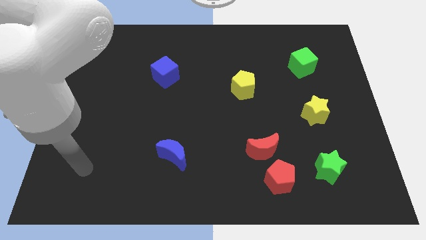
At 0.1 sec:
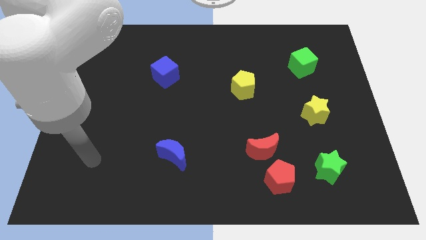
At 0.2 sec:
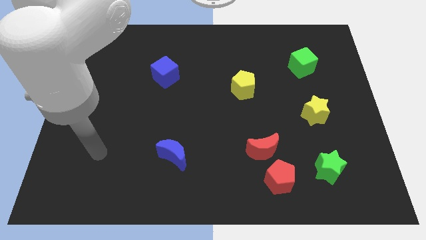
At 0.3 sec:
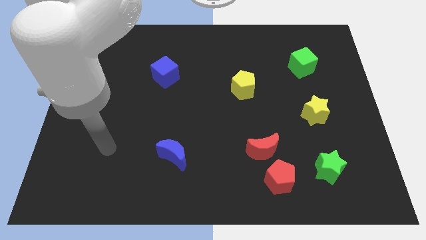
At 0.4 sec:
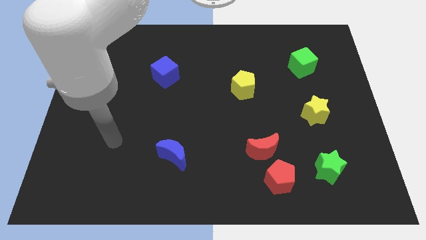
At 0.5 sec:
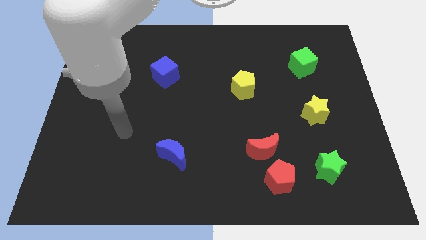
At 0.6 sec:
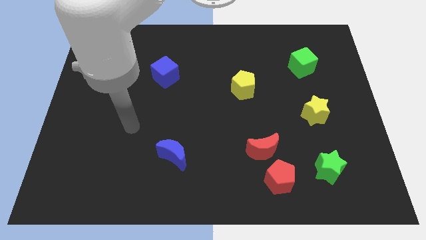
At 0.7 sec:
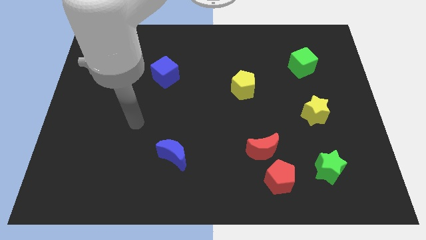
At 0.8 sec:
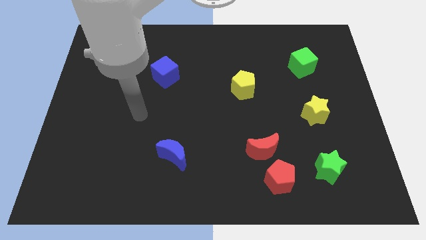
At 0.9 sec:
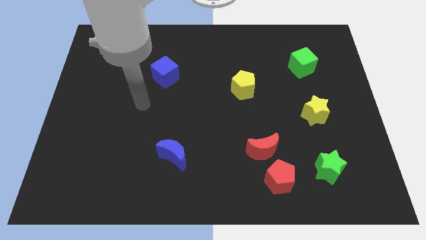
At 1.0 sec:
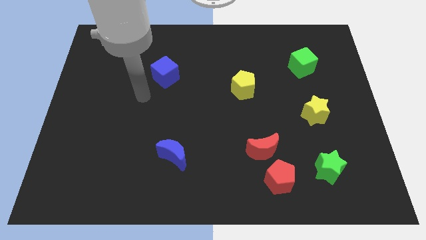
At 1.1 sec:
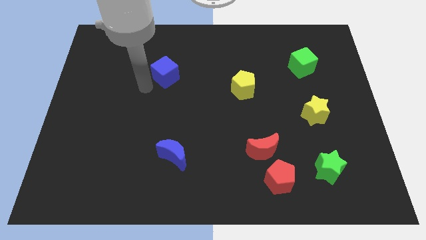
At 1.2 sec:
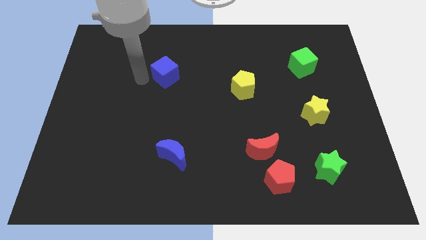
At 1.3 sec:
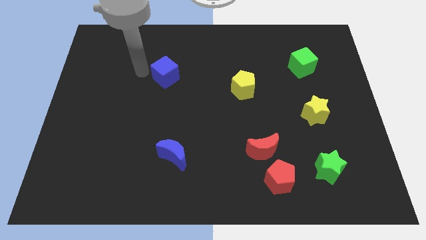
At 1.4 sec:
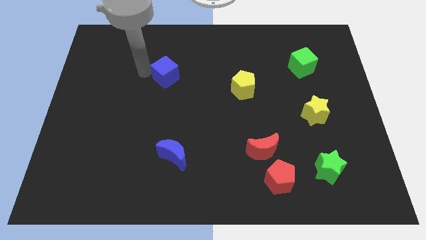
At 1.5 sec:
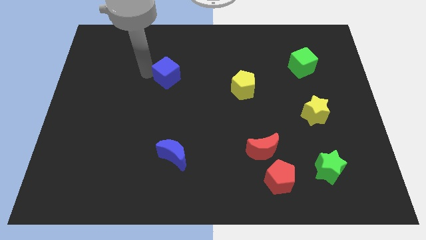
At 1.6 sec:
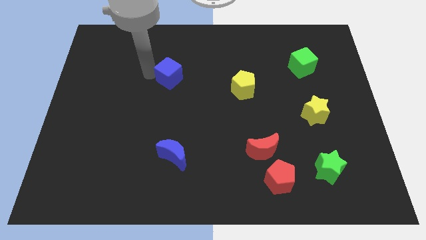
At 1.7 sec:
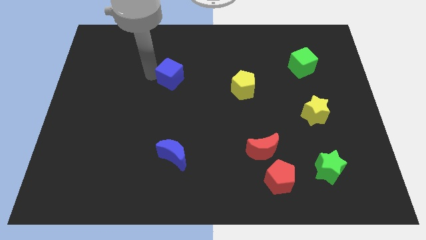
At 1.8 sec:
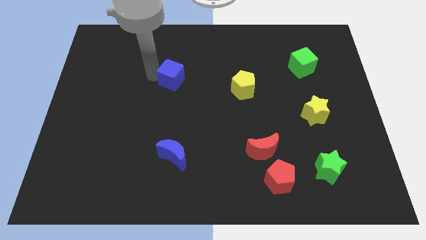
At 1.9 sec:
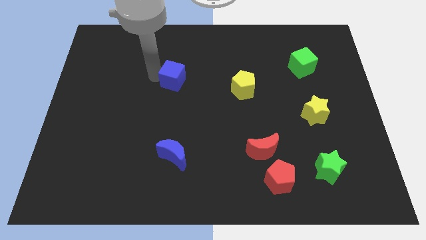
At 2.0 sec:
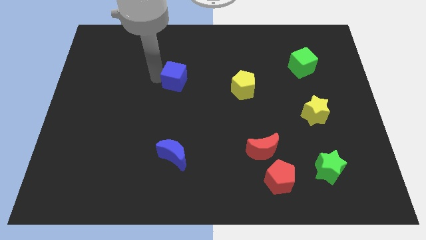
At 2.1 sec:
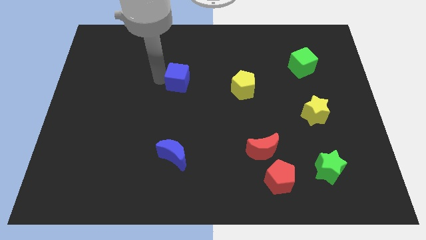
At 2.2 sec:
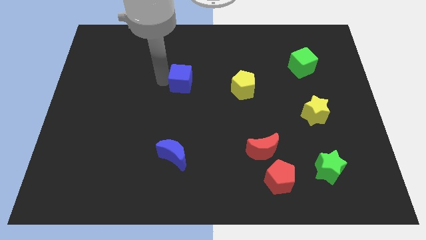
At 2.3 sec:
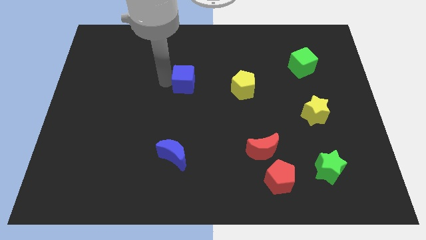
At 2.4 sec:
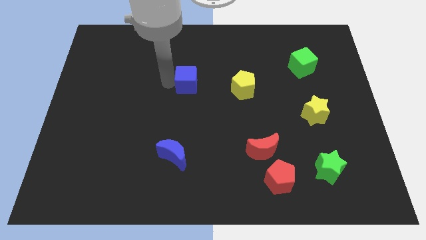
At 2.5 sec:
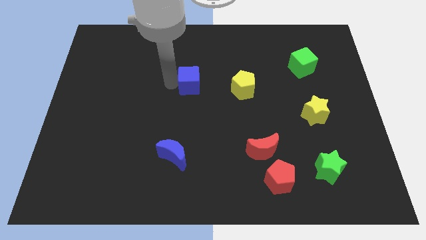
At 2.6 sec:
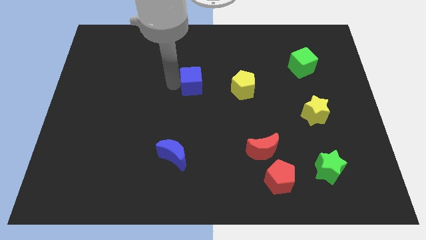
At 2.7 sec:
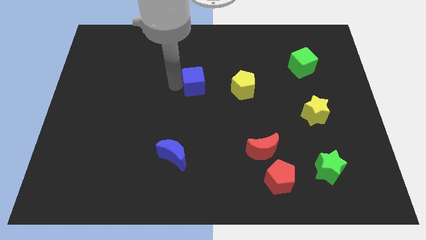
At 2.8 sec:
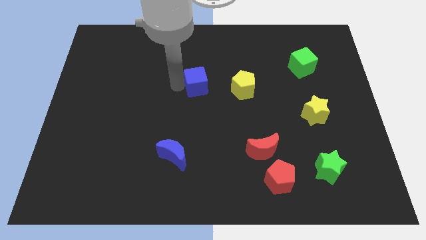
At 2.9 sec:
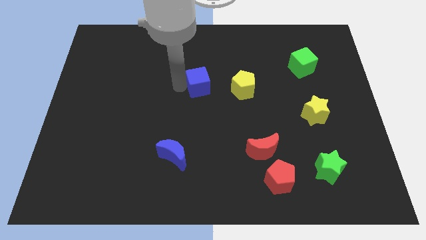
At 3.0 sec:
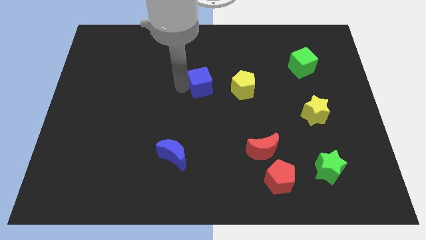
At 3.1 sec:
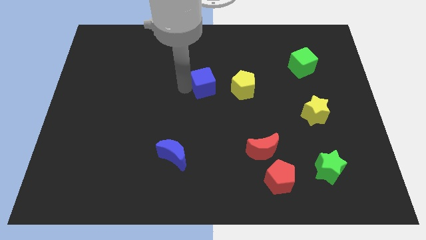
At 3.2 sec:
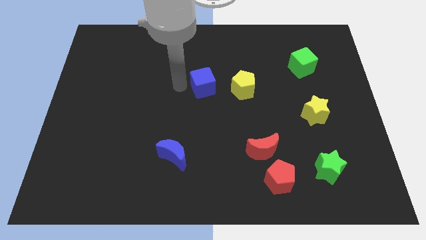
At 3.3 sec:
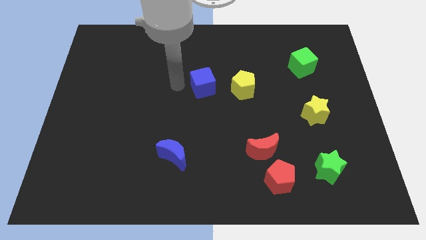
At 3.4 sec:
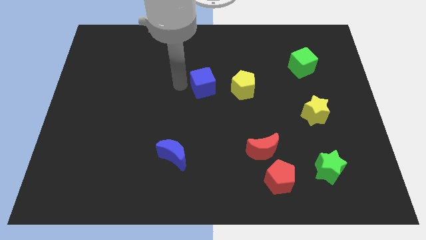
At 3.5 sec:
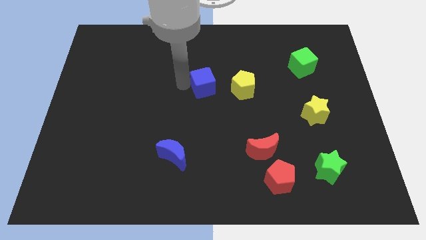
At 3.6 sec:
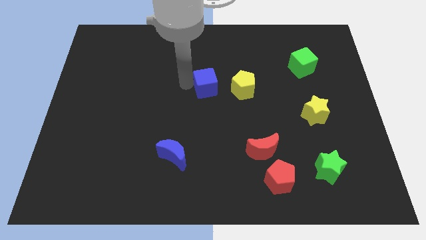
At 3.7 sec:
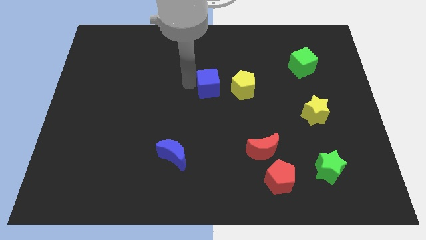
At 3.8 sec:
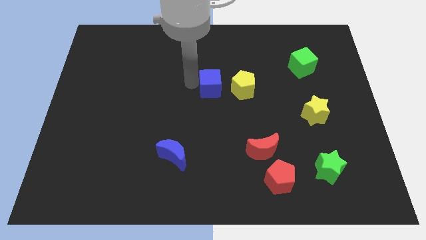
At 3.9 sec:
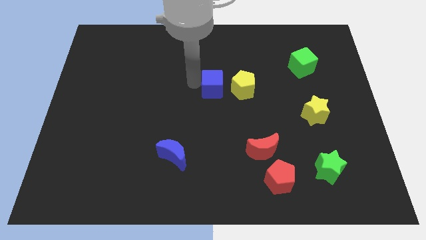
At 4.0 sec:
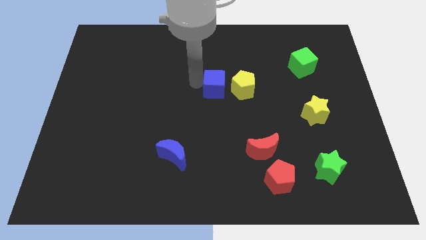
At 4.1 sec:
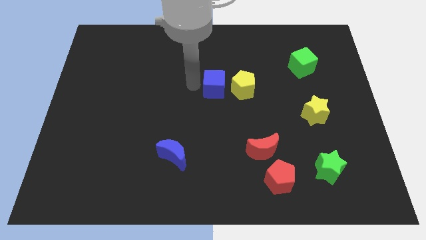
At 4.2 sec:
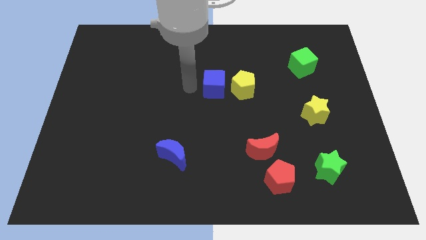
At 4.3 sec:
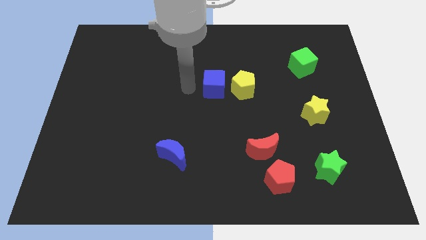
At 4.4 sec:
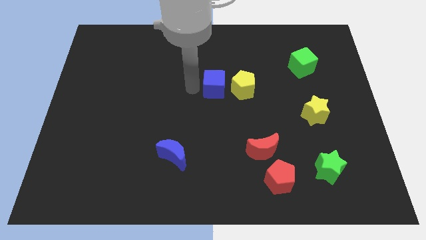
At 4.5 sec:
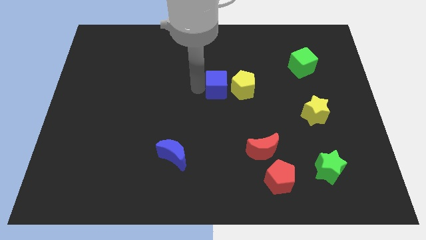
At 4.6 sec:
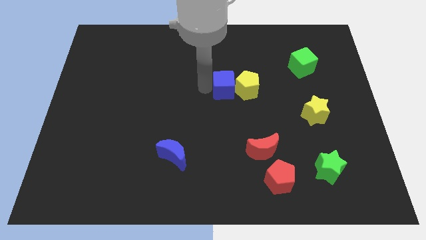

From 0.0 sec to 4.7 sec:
slide the blue cube towards the yellow pentagon

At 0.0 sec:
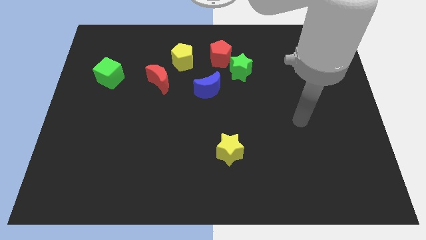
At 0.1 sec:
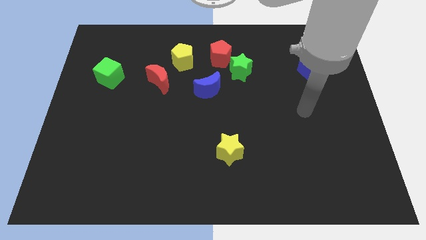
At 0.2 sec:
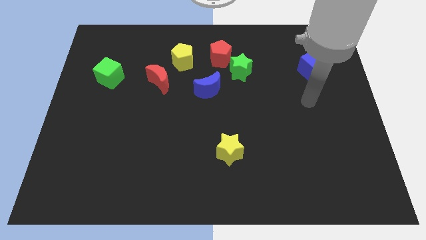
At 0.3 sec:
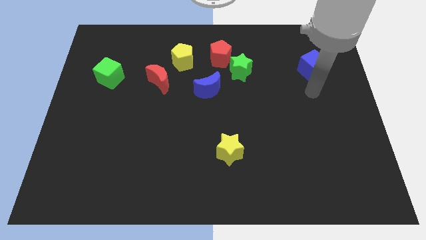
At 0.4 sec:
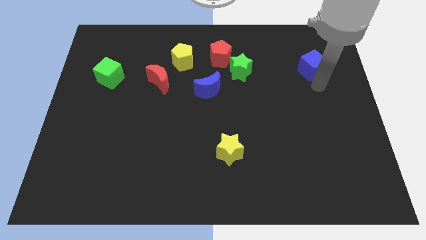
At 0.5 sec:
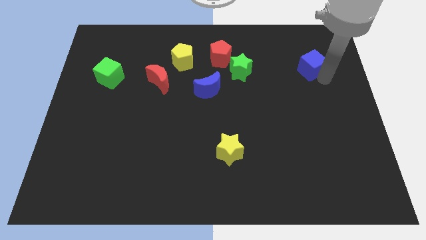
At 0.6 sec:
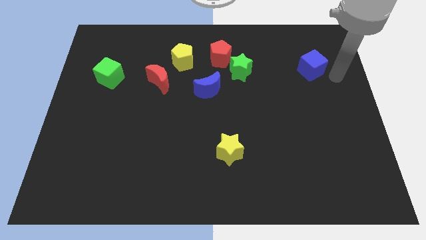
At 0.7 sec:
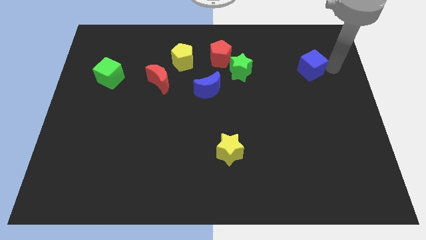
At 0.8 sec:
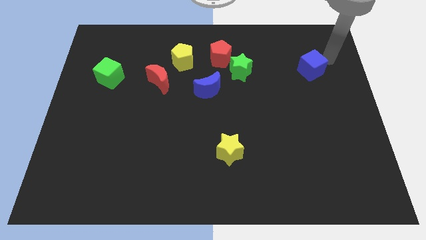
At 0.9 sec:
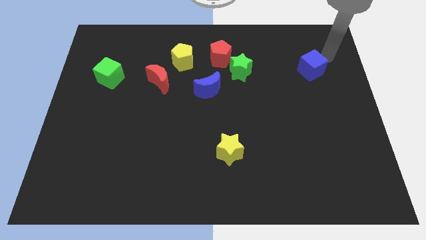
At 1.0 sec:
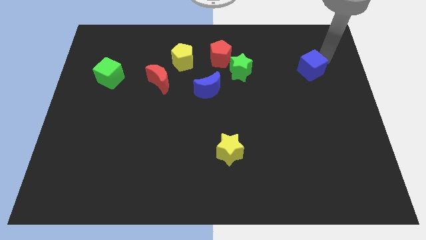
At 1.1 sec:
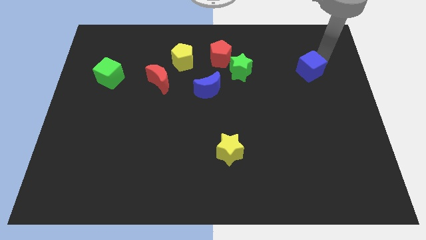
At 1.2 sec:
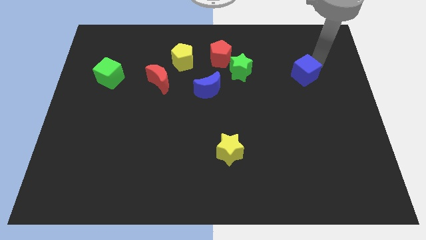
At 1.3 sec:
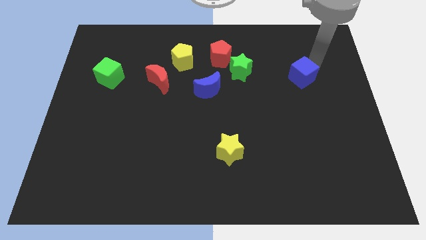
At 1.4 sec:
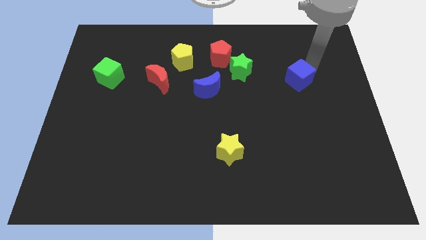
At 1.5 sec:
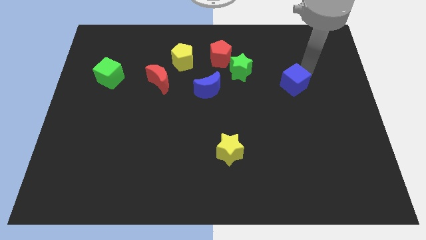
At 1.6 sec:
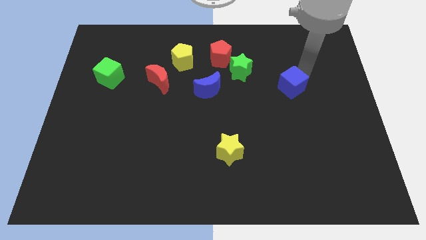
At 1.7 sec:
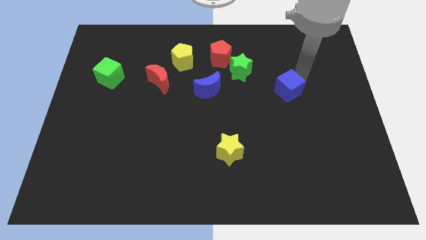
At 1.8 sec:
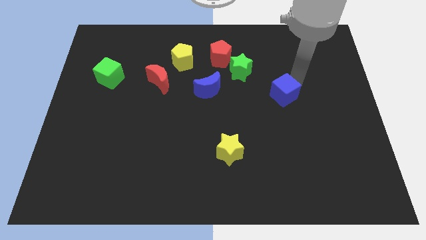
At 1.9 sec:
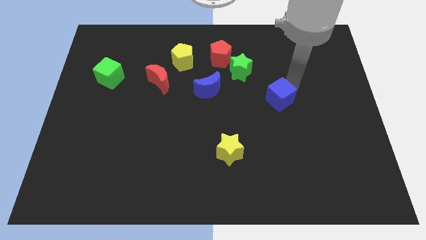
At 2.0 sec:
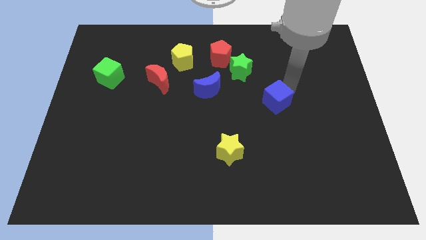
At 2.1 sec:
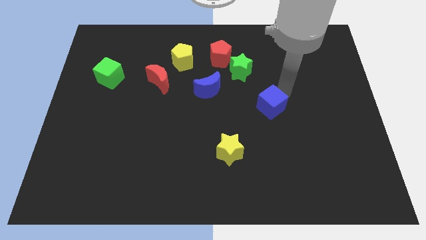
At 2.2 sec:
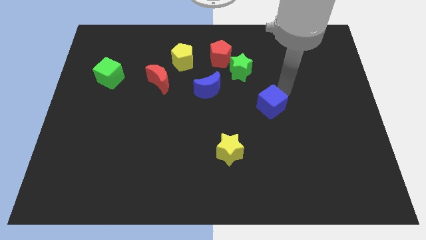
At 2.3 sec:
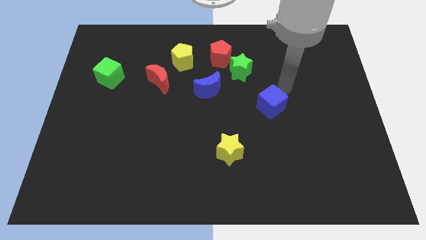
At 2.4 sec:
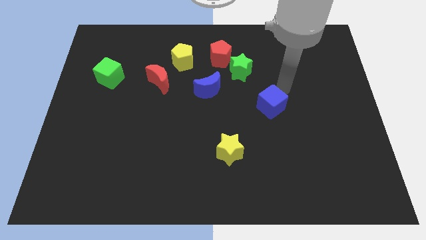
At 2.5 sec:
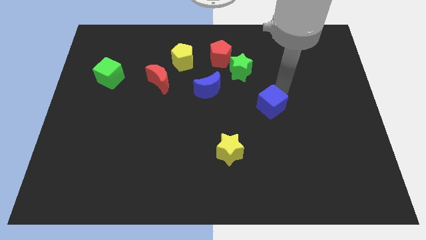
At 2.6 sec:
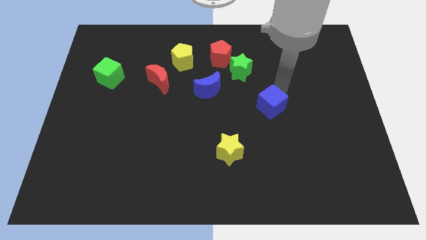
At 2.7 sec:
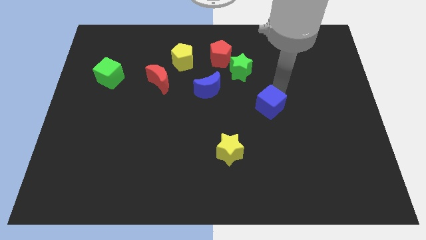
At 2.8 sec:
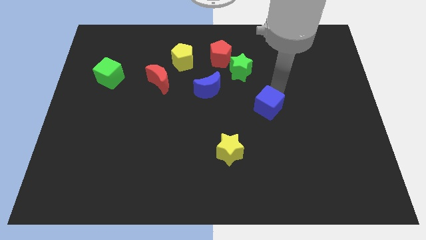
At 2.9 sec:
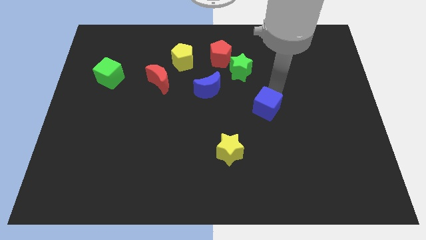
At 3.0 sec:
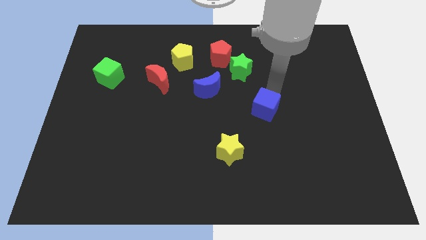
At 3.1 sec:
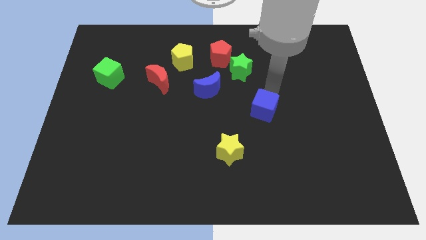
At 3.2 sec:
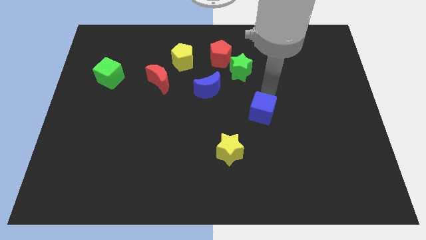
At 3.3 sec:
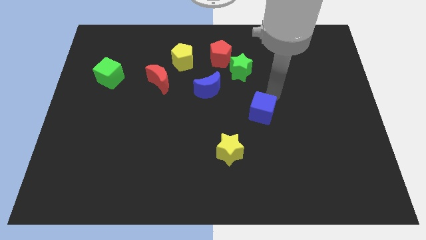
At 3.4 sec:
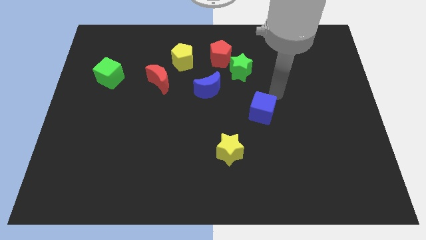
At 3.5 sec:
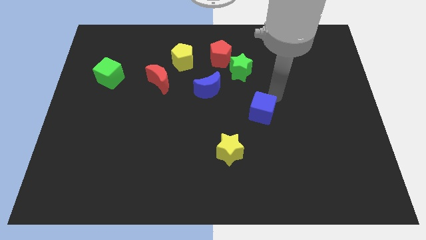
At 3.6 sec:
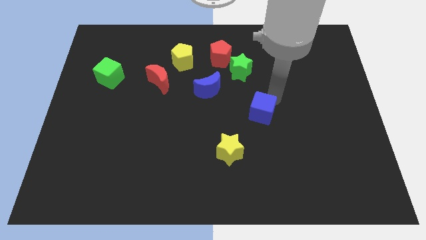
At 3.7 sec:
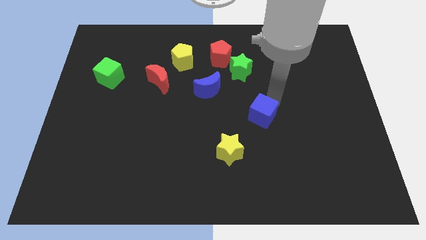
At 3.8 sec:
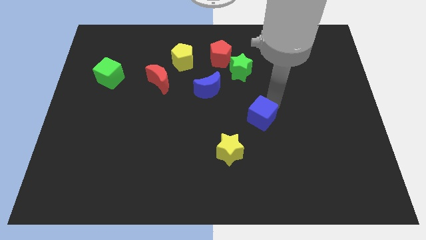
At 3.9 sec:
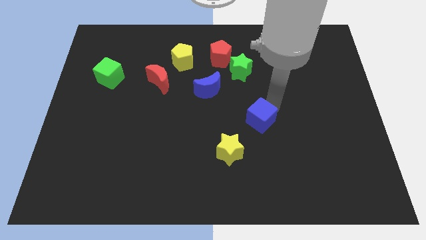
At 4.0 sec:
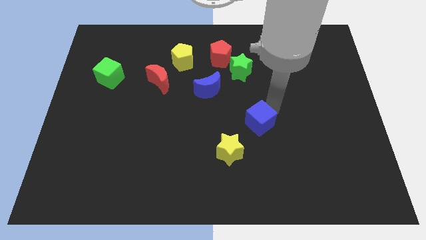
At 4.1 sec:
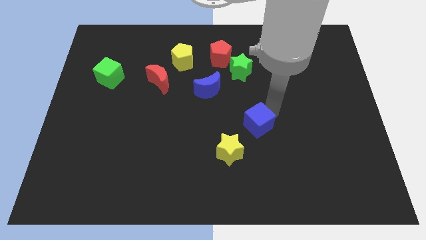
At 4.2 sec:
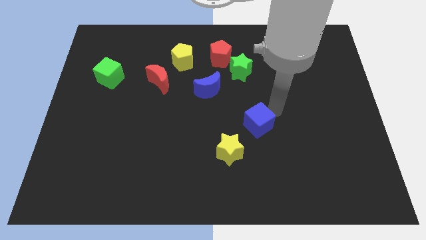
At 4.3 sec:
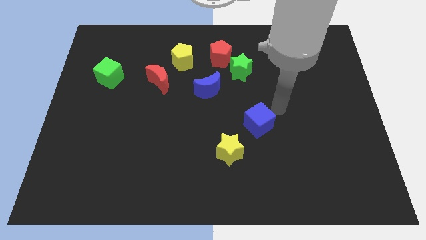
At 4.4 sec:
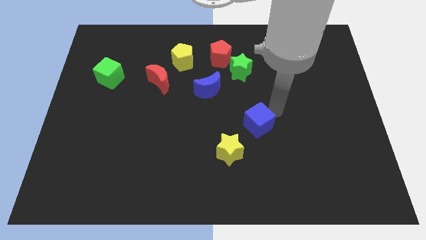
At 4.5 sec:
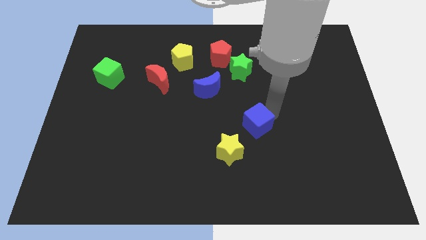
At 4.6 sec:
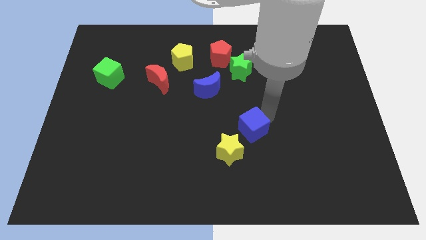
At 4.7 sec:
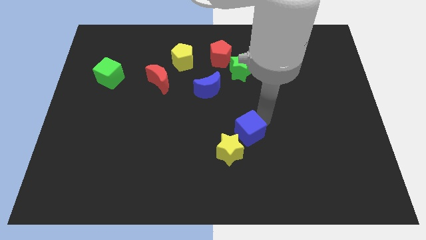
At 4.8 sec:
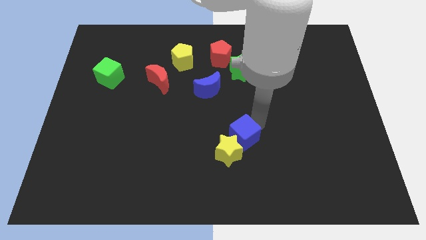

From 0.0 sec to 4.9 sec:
slide the blue cube towards the yellow star
